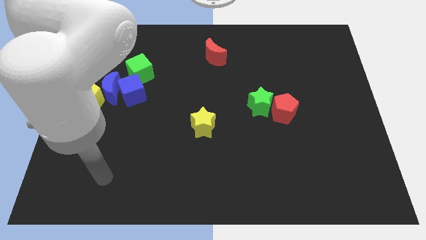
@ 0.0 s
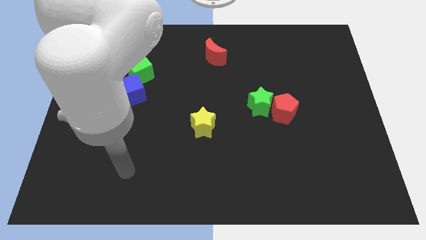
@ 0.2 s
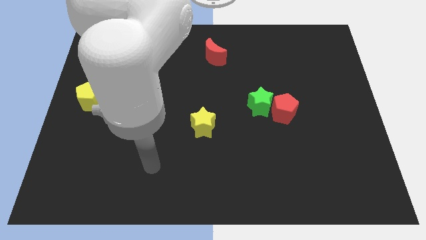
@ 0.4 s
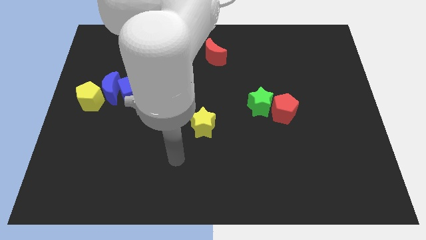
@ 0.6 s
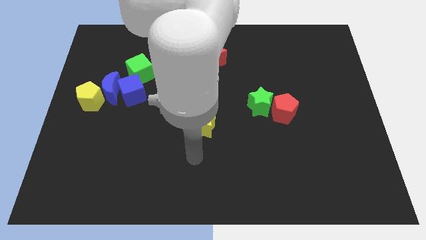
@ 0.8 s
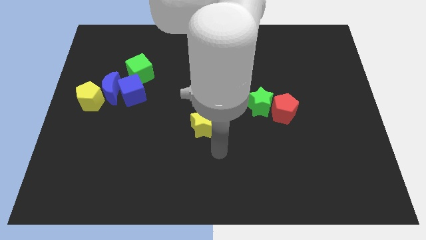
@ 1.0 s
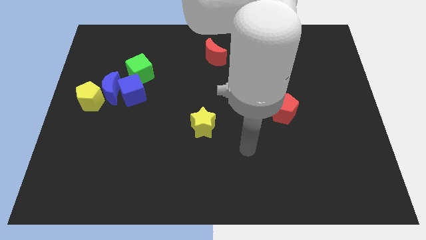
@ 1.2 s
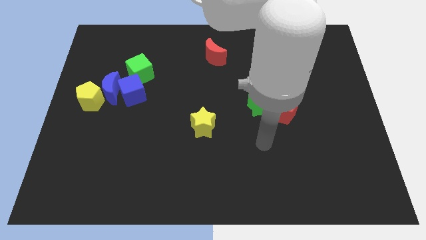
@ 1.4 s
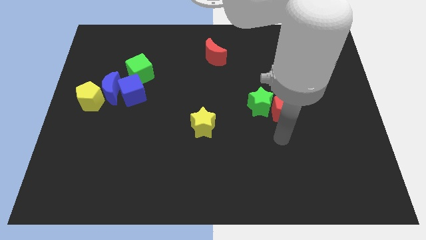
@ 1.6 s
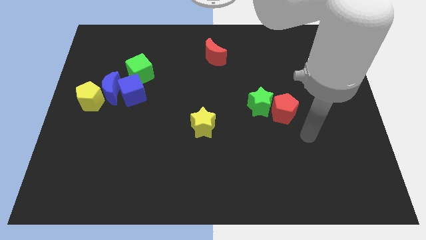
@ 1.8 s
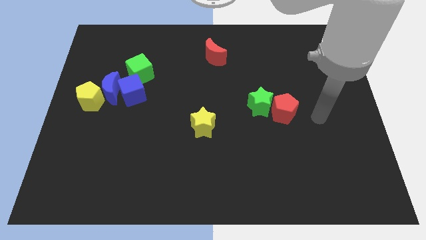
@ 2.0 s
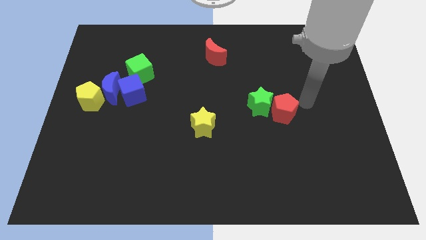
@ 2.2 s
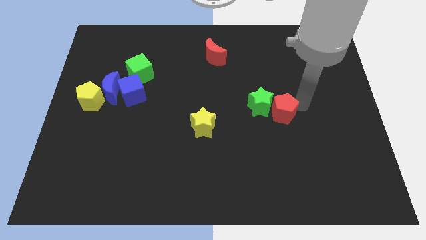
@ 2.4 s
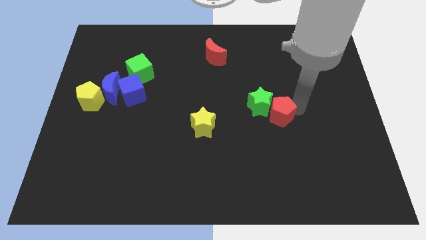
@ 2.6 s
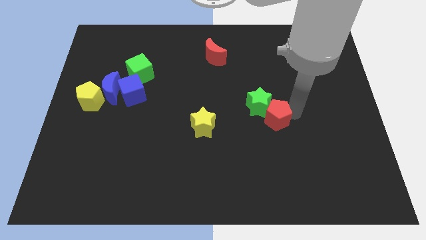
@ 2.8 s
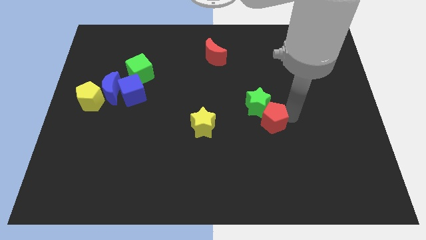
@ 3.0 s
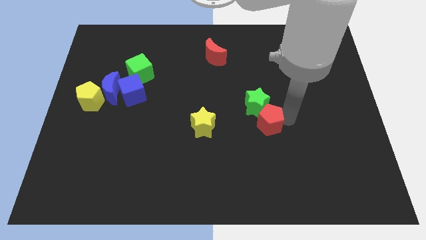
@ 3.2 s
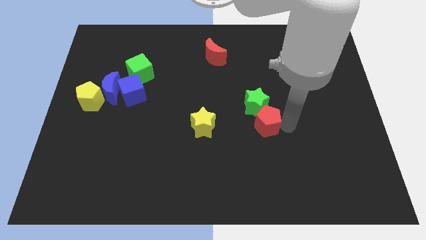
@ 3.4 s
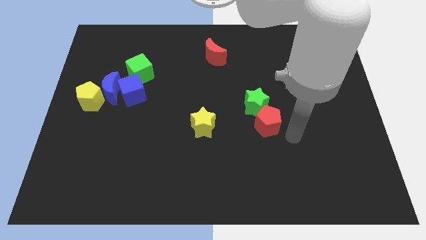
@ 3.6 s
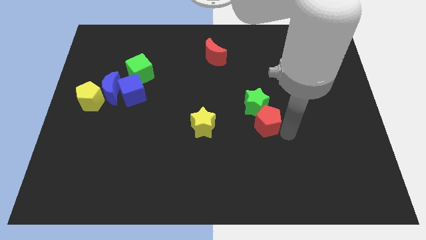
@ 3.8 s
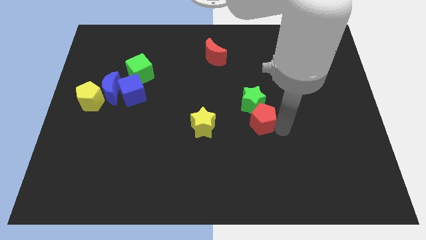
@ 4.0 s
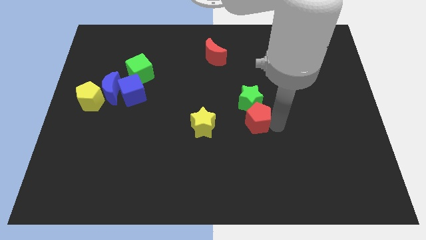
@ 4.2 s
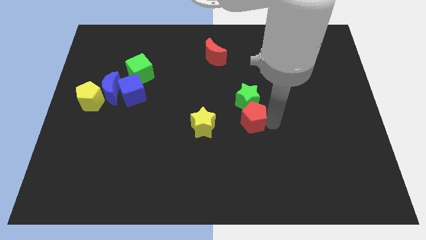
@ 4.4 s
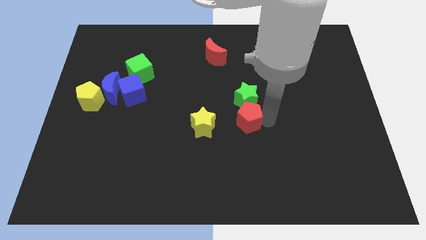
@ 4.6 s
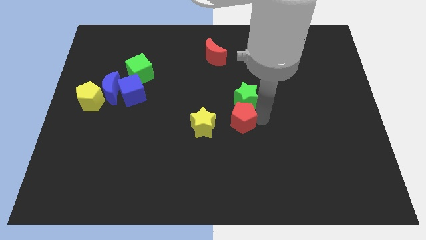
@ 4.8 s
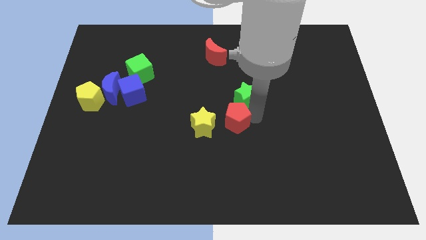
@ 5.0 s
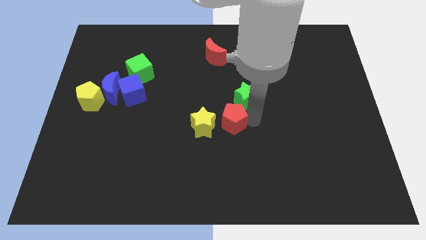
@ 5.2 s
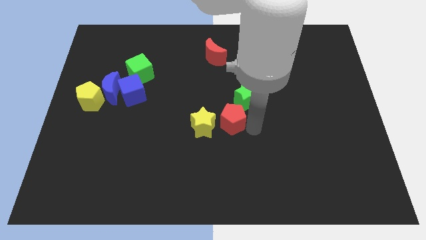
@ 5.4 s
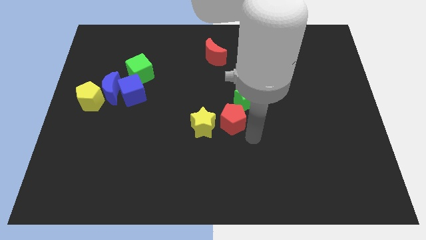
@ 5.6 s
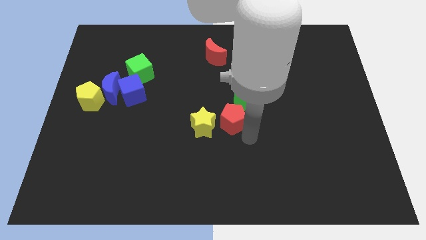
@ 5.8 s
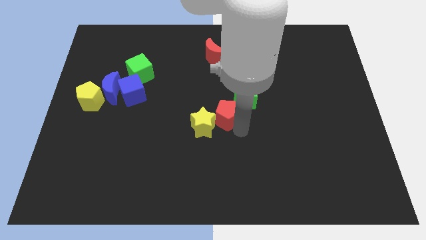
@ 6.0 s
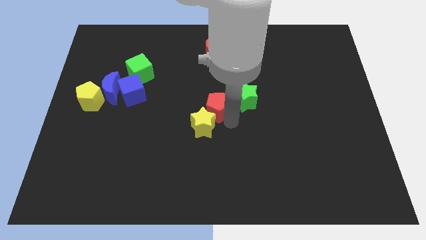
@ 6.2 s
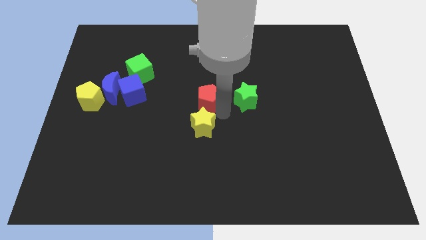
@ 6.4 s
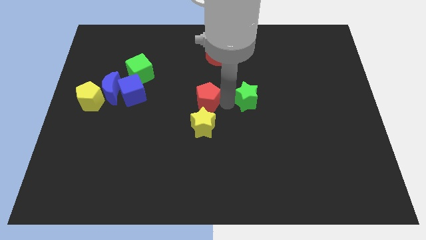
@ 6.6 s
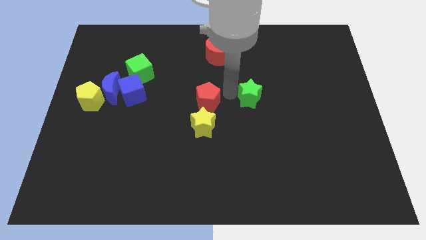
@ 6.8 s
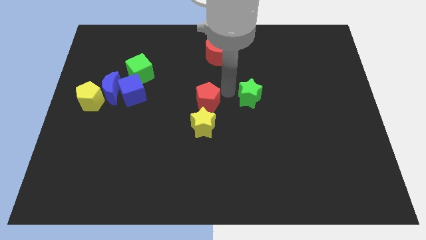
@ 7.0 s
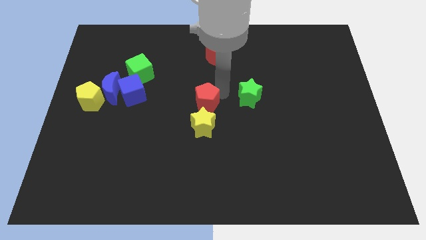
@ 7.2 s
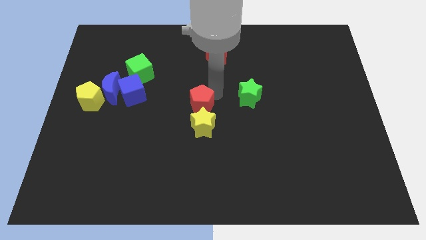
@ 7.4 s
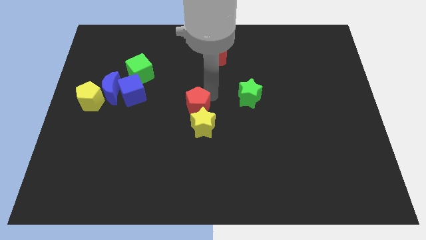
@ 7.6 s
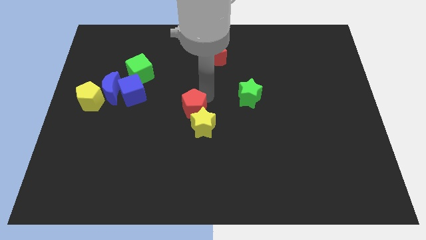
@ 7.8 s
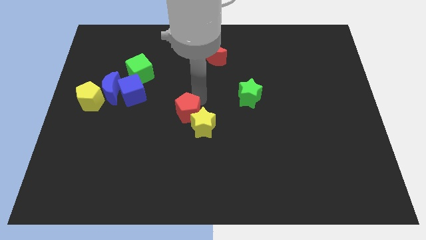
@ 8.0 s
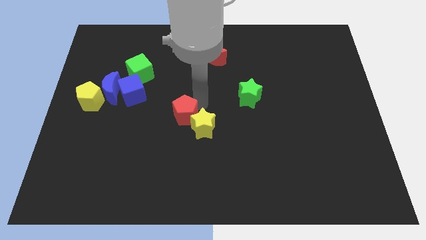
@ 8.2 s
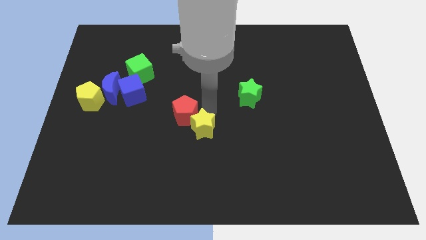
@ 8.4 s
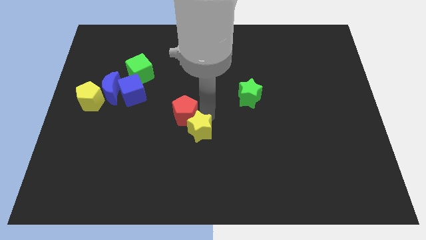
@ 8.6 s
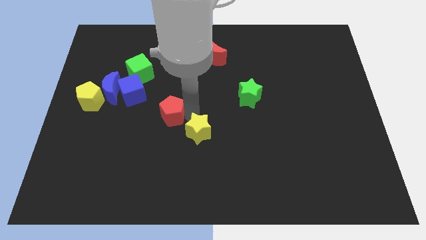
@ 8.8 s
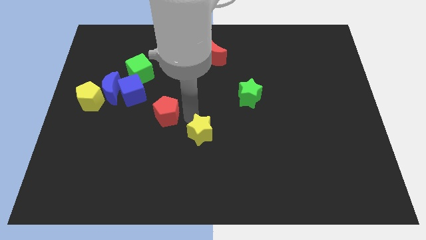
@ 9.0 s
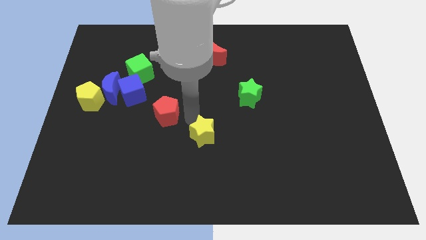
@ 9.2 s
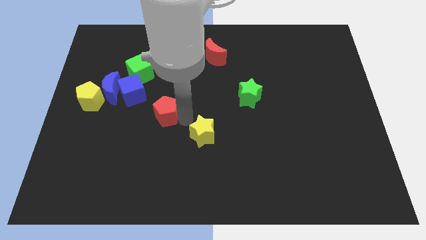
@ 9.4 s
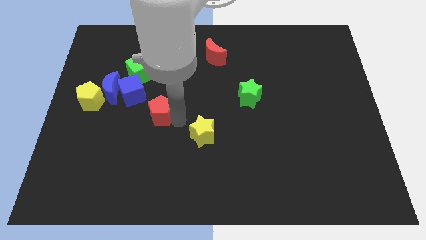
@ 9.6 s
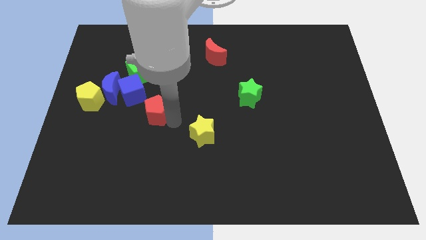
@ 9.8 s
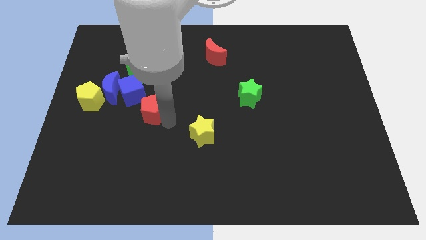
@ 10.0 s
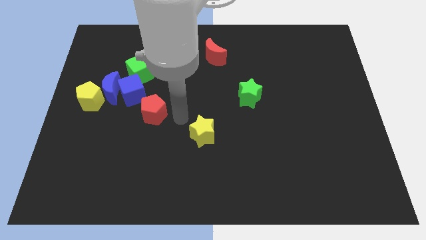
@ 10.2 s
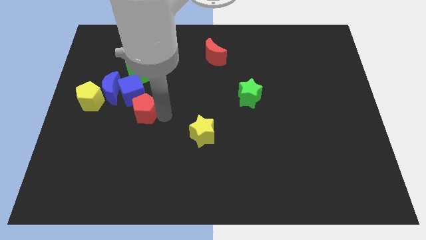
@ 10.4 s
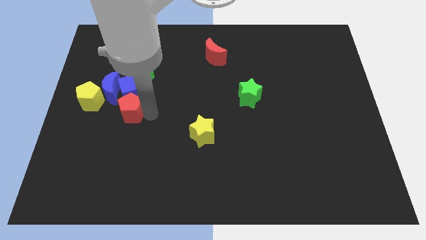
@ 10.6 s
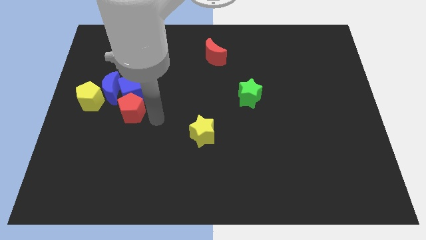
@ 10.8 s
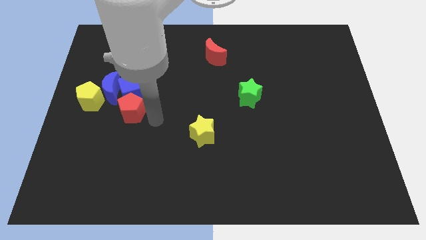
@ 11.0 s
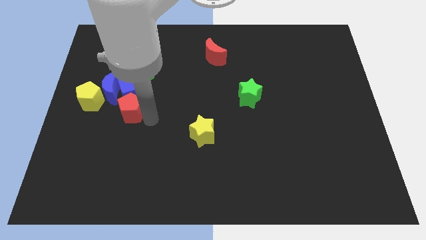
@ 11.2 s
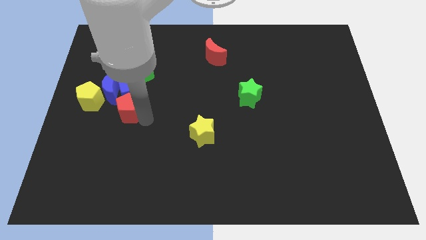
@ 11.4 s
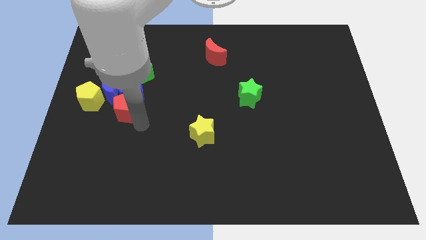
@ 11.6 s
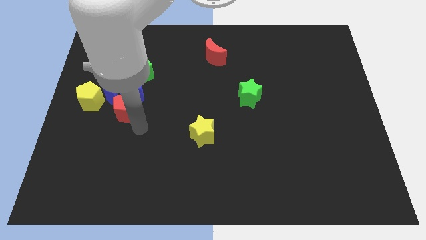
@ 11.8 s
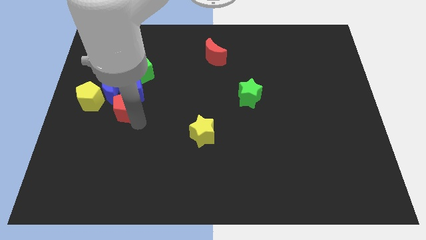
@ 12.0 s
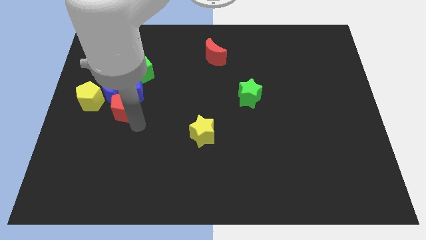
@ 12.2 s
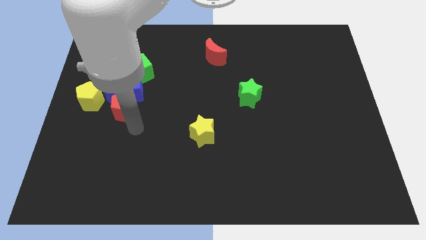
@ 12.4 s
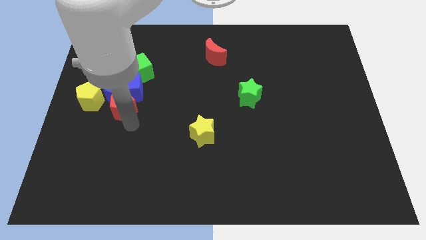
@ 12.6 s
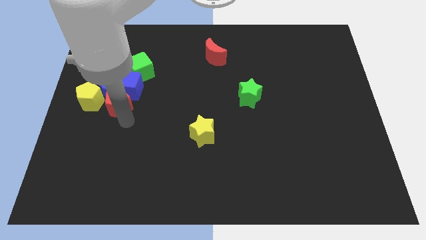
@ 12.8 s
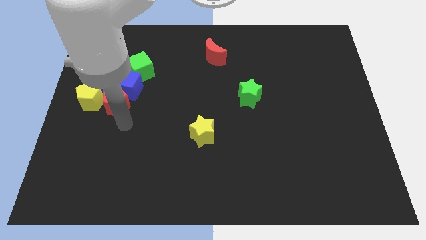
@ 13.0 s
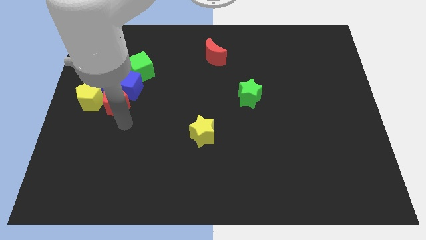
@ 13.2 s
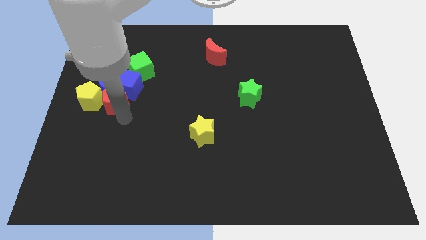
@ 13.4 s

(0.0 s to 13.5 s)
put the red pentagon close to the blue moon

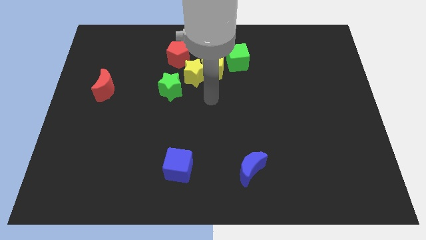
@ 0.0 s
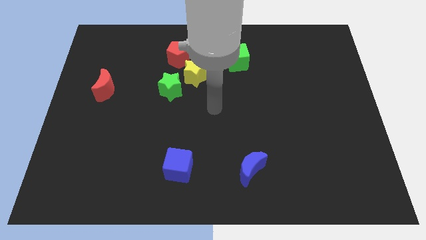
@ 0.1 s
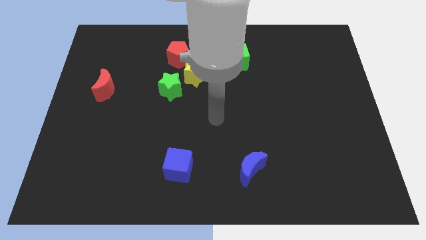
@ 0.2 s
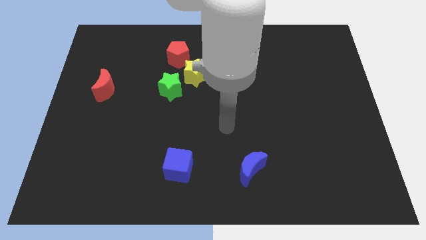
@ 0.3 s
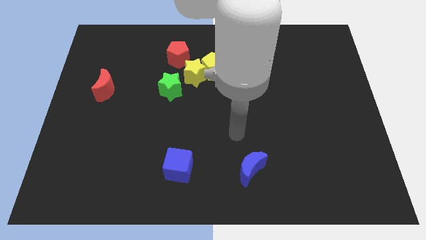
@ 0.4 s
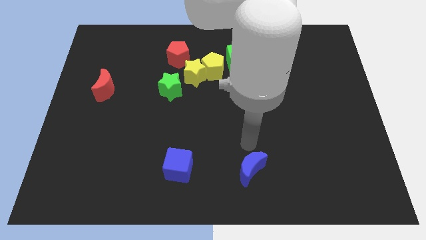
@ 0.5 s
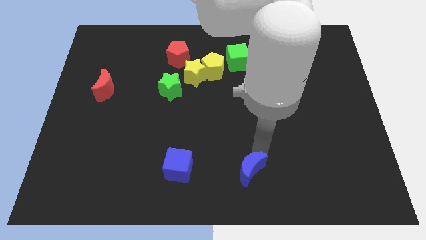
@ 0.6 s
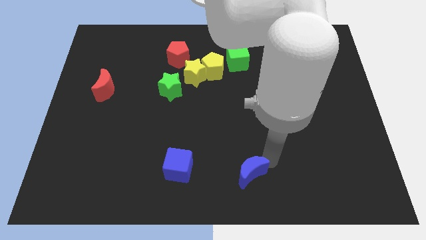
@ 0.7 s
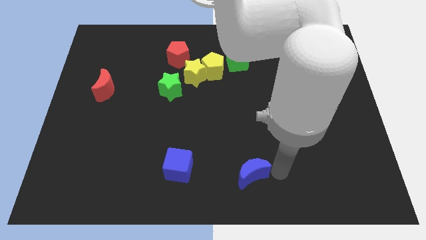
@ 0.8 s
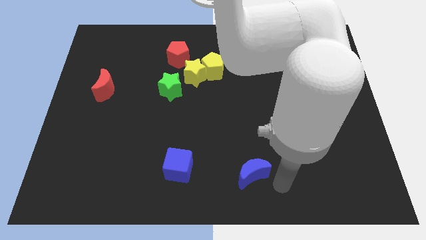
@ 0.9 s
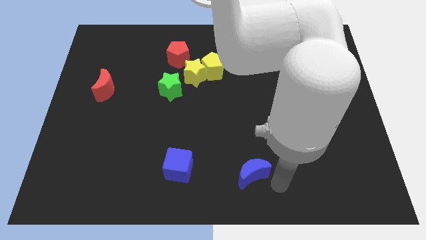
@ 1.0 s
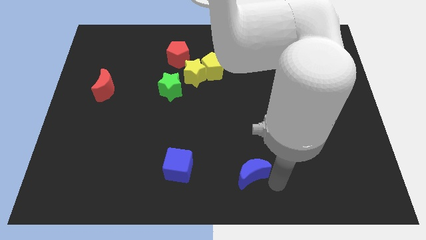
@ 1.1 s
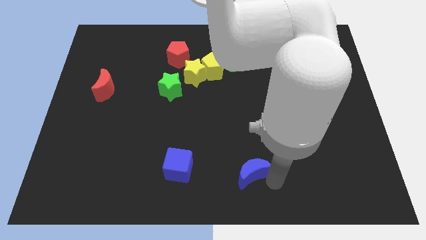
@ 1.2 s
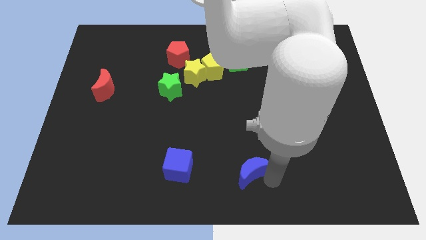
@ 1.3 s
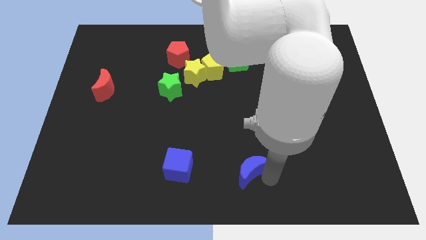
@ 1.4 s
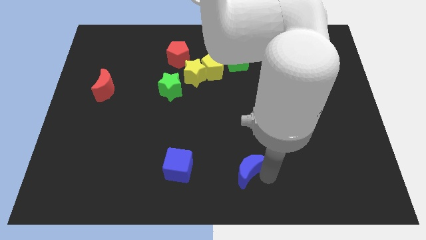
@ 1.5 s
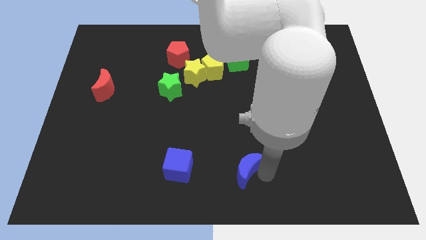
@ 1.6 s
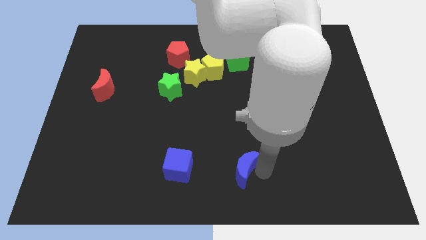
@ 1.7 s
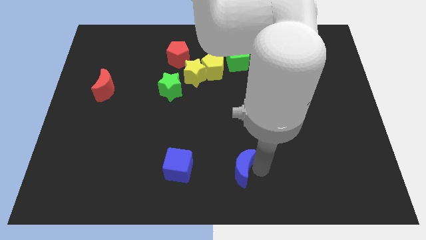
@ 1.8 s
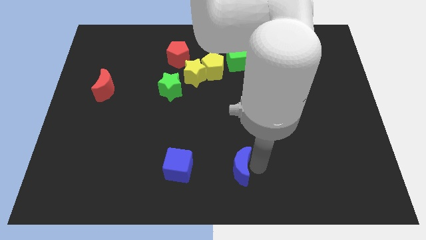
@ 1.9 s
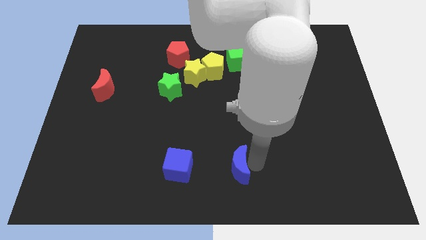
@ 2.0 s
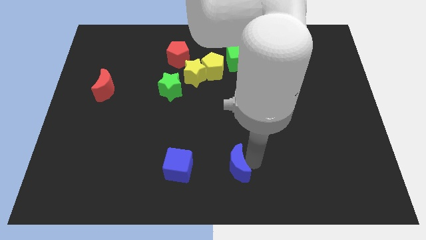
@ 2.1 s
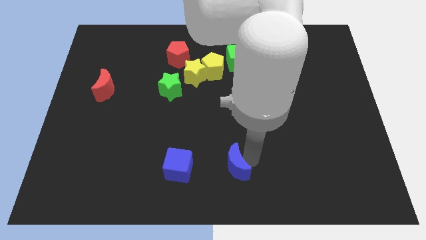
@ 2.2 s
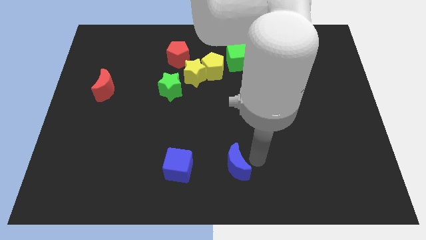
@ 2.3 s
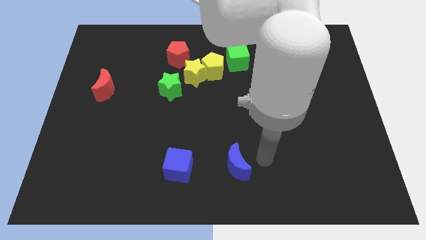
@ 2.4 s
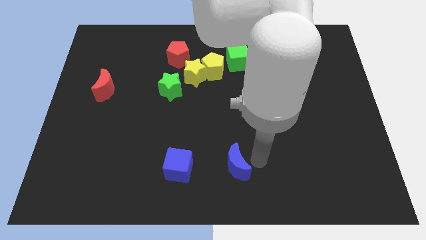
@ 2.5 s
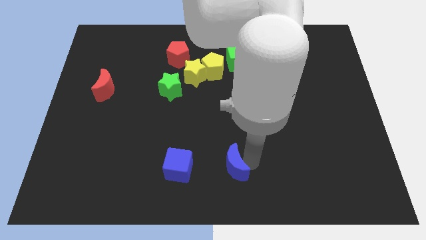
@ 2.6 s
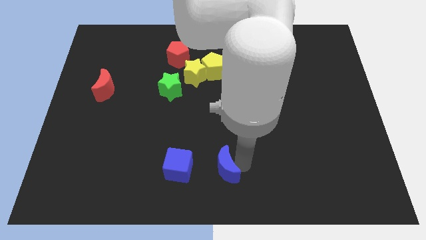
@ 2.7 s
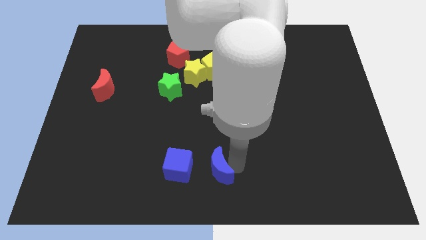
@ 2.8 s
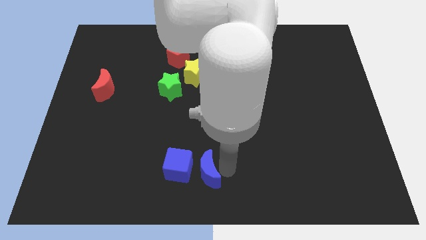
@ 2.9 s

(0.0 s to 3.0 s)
put the blue moon to the blue cube
